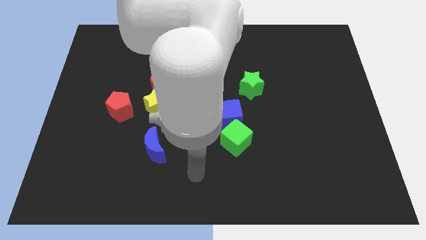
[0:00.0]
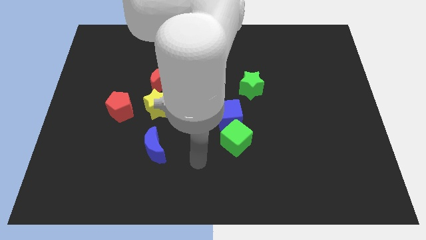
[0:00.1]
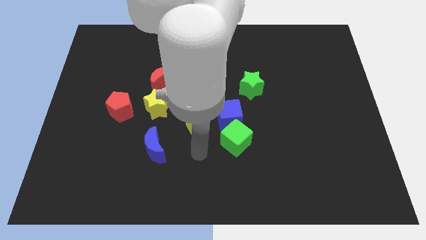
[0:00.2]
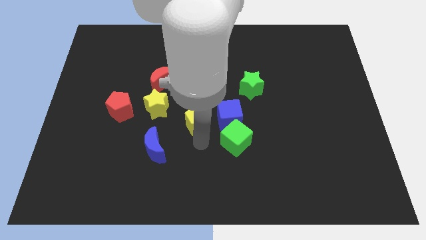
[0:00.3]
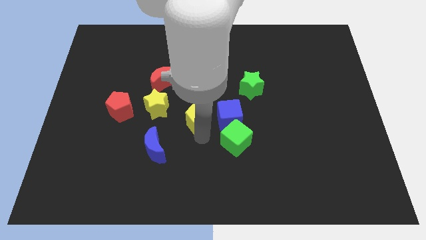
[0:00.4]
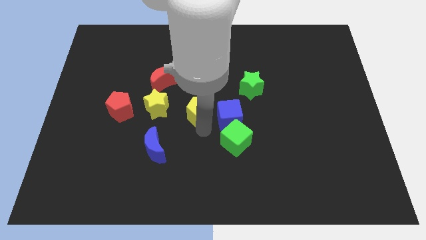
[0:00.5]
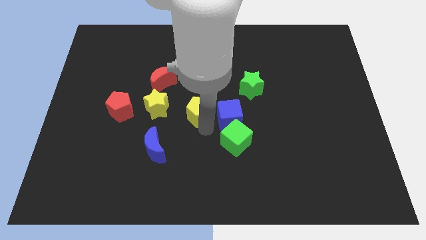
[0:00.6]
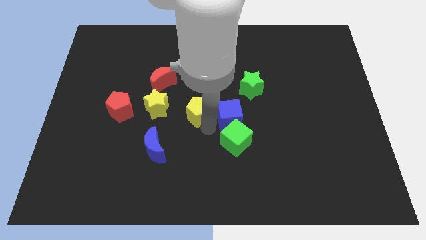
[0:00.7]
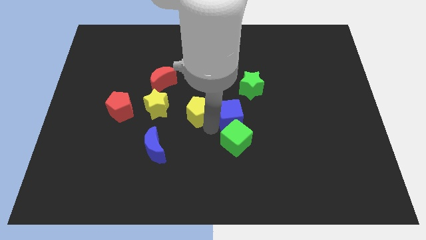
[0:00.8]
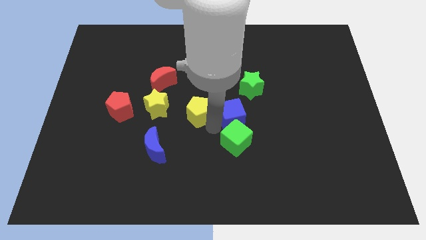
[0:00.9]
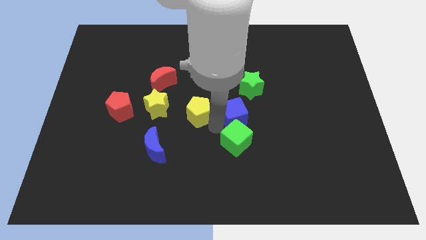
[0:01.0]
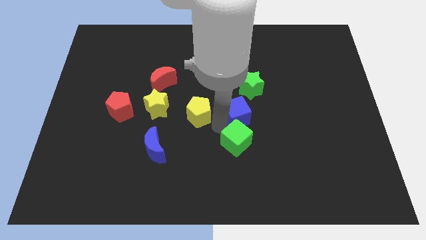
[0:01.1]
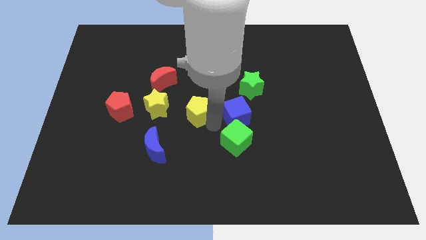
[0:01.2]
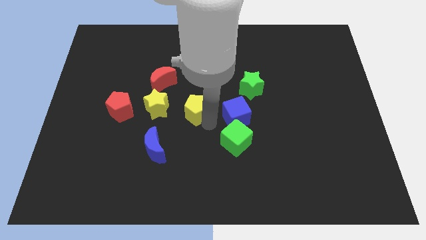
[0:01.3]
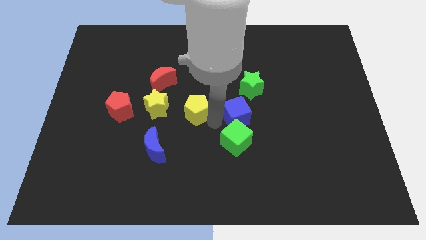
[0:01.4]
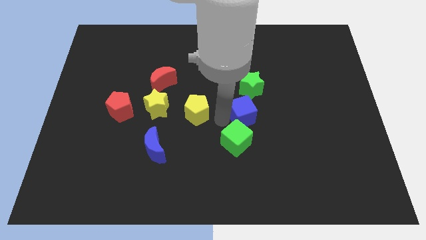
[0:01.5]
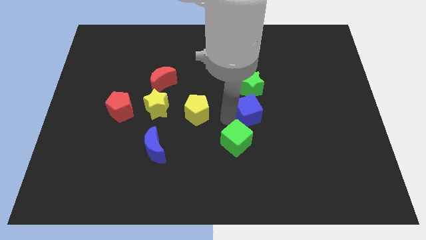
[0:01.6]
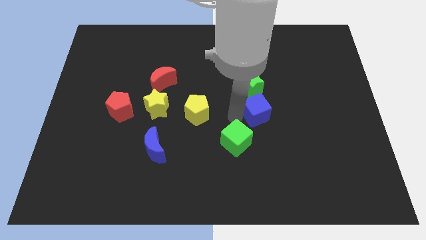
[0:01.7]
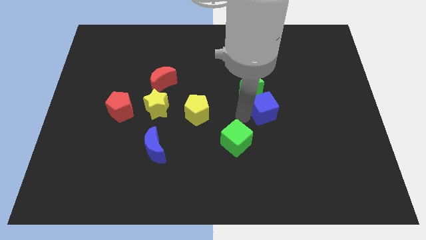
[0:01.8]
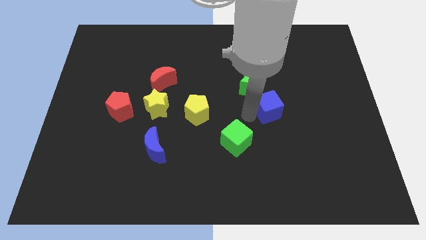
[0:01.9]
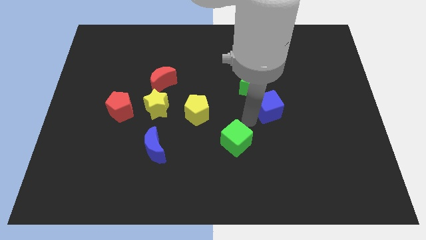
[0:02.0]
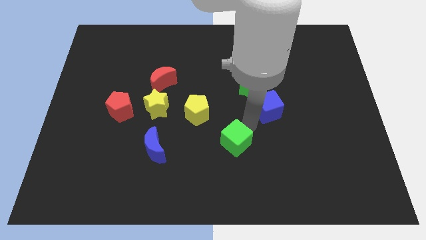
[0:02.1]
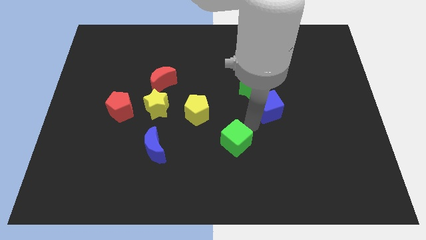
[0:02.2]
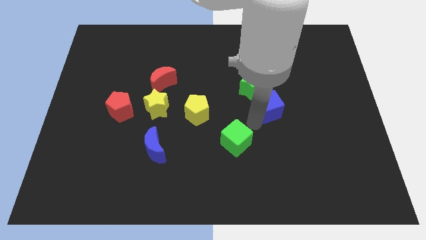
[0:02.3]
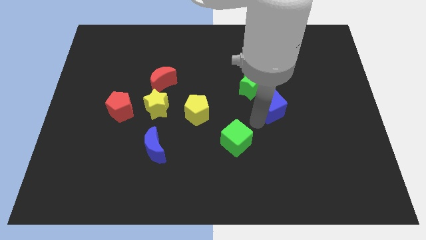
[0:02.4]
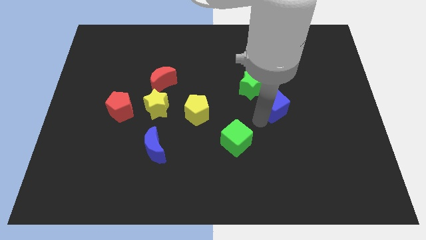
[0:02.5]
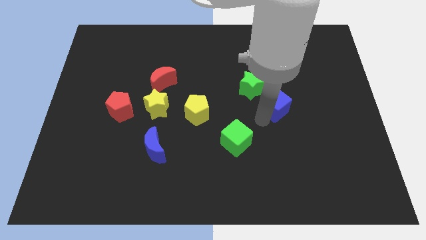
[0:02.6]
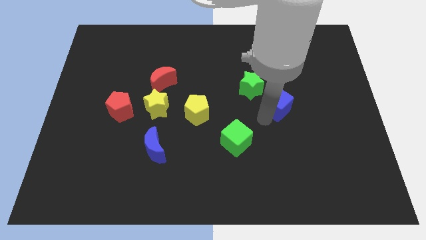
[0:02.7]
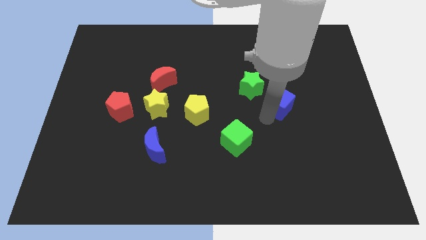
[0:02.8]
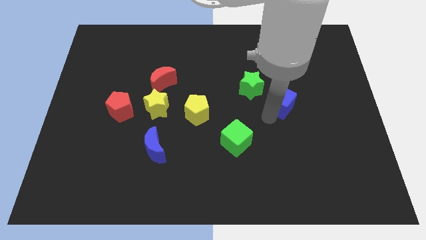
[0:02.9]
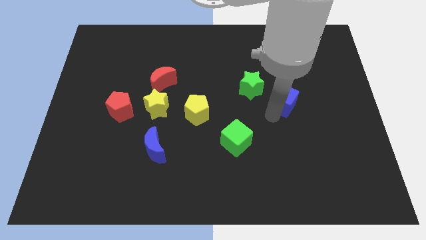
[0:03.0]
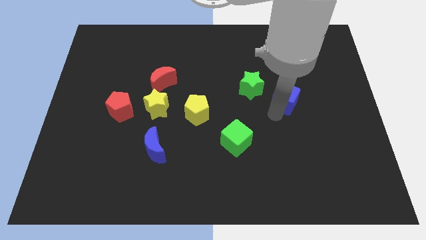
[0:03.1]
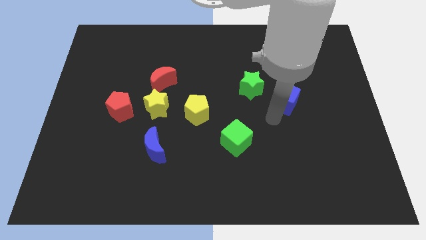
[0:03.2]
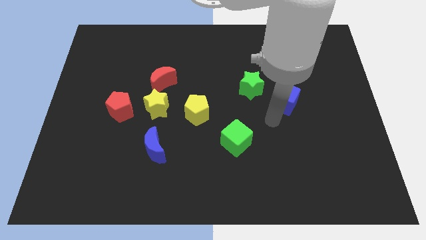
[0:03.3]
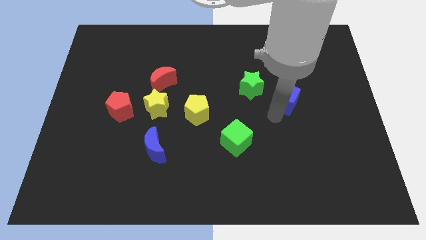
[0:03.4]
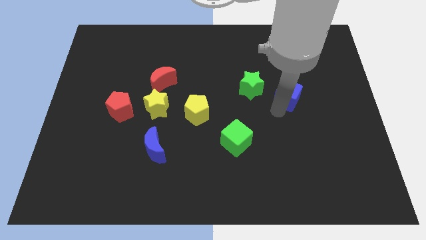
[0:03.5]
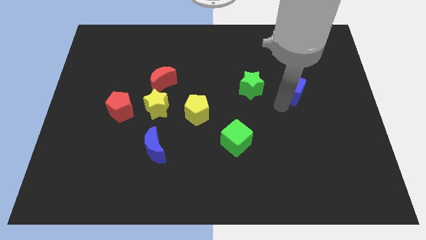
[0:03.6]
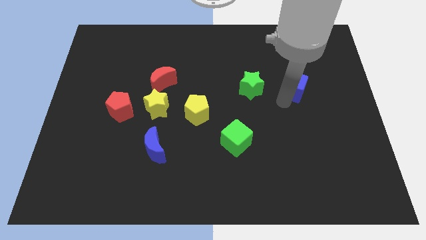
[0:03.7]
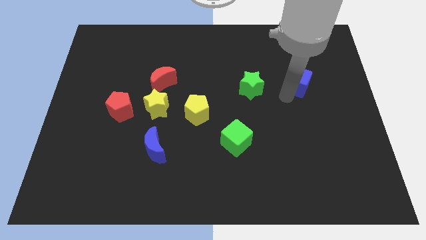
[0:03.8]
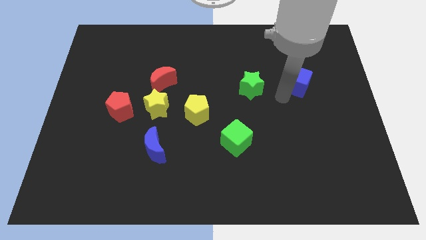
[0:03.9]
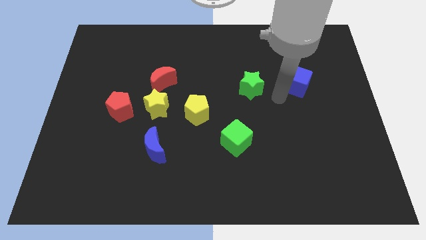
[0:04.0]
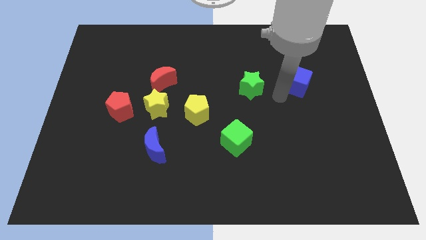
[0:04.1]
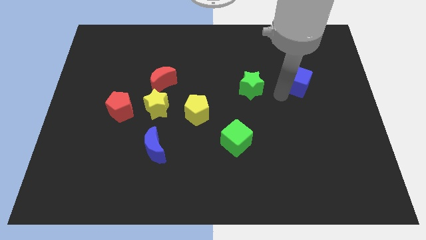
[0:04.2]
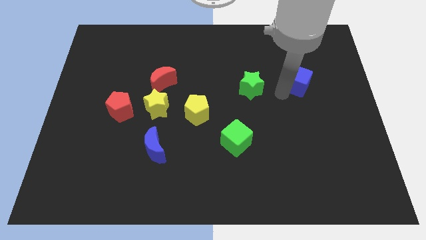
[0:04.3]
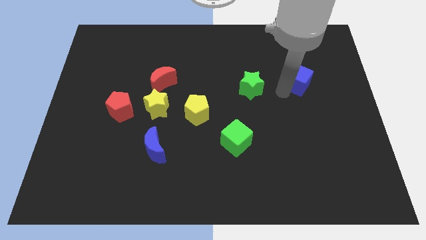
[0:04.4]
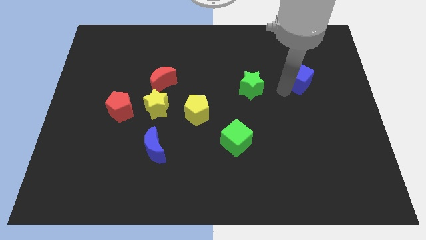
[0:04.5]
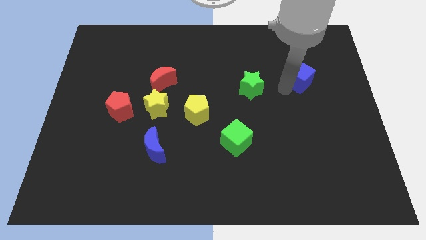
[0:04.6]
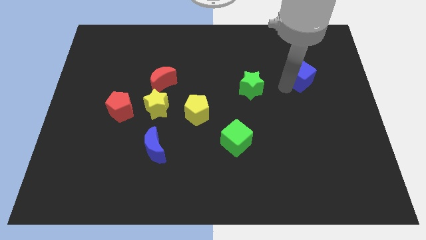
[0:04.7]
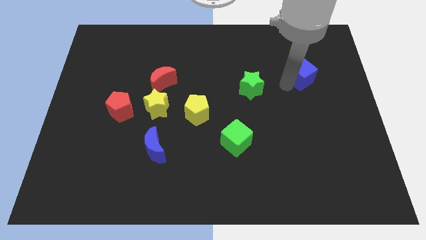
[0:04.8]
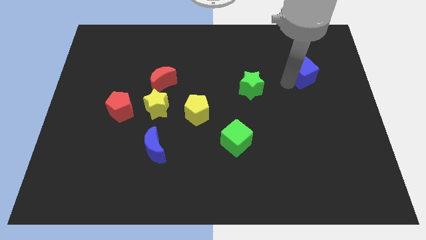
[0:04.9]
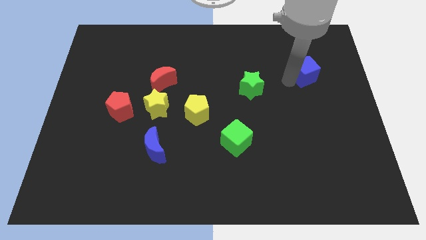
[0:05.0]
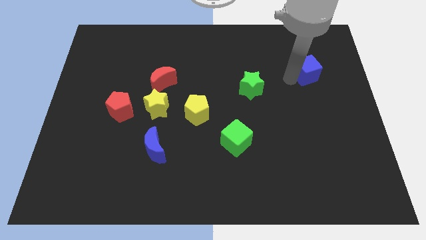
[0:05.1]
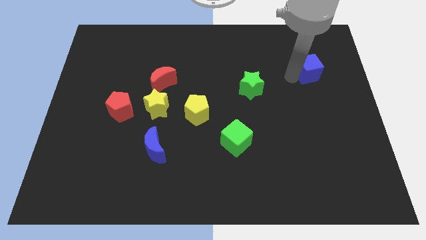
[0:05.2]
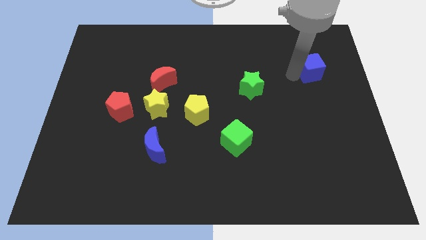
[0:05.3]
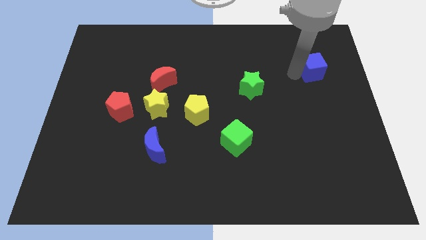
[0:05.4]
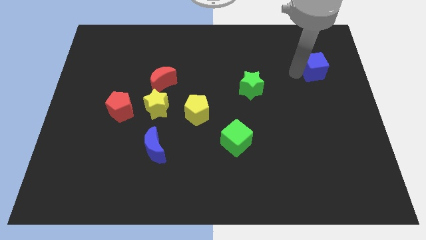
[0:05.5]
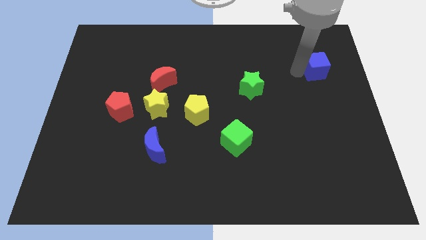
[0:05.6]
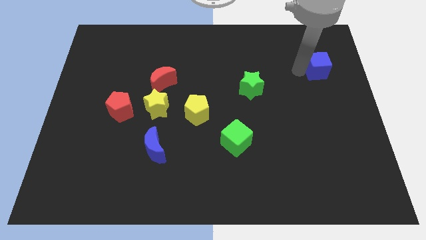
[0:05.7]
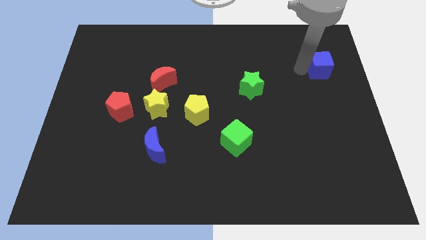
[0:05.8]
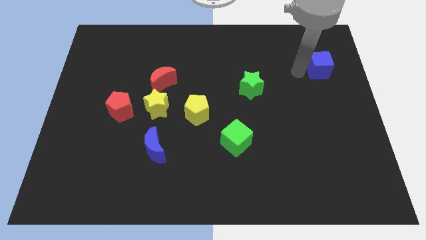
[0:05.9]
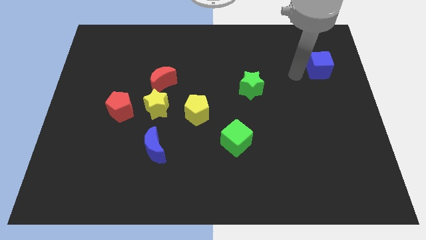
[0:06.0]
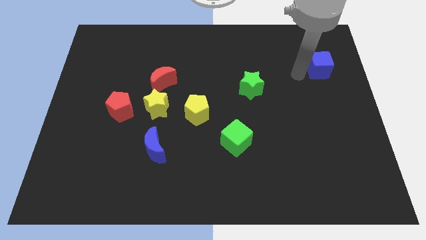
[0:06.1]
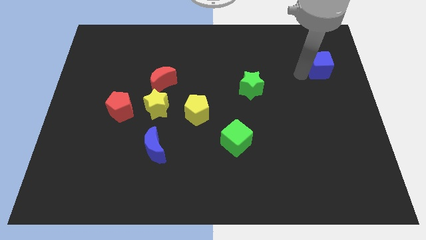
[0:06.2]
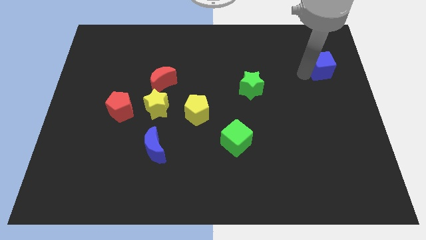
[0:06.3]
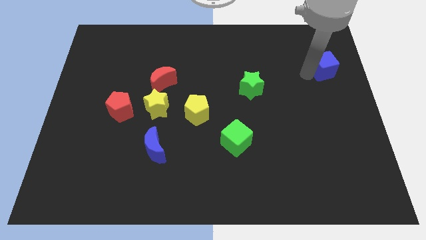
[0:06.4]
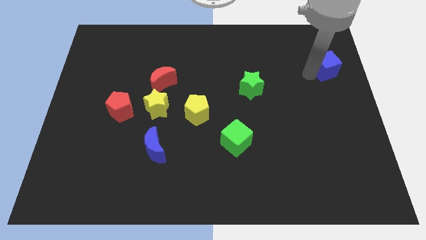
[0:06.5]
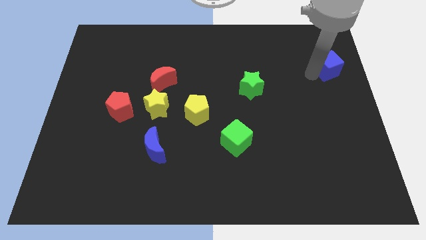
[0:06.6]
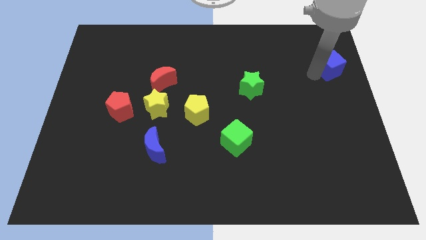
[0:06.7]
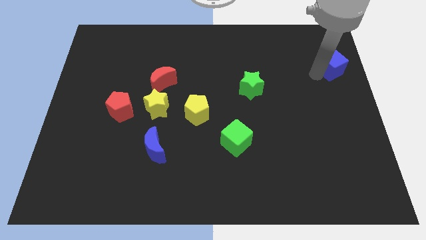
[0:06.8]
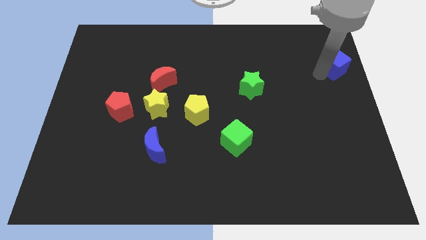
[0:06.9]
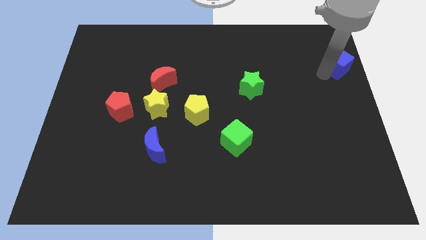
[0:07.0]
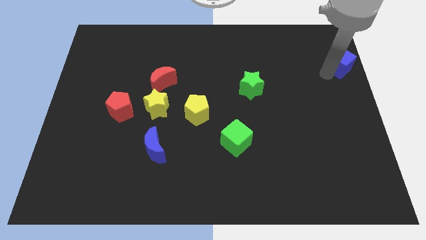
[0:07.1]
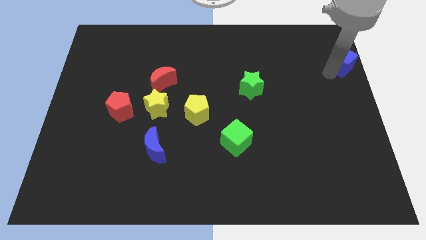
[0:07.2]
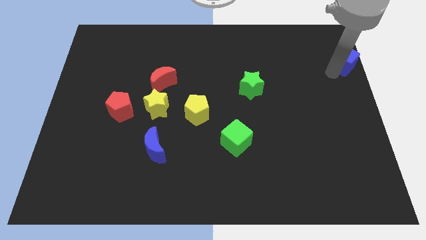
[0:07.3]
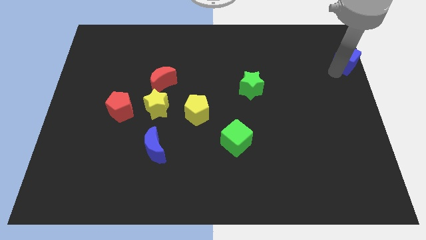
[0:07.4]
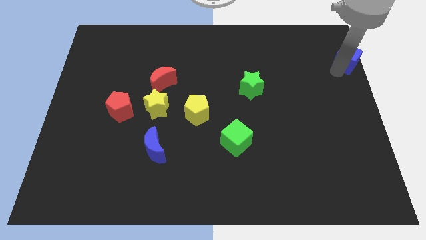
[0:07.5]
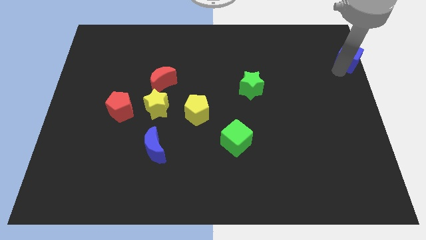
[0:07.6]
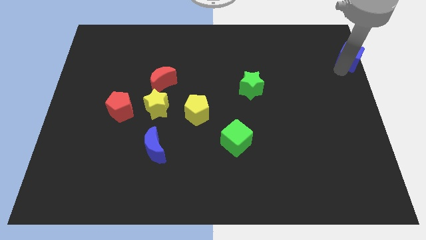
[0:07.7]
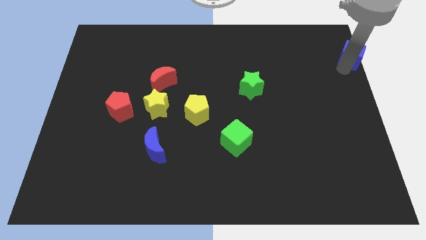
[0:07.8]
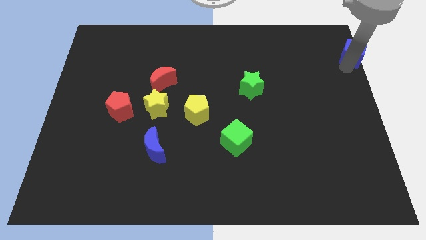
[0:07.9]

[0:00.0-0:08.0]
move the blue cube to the top right corner
